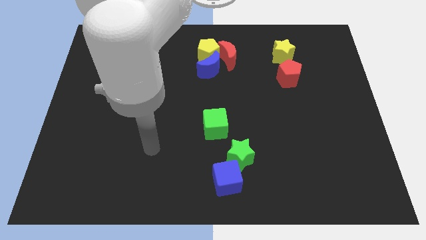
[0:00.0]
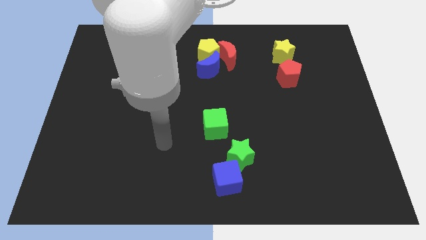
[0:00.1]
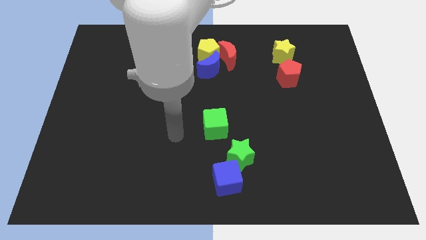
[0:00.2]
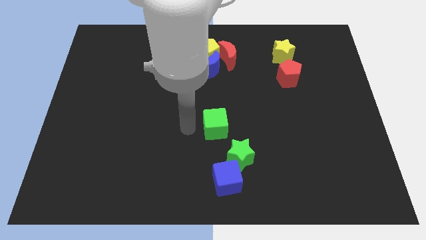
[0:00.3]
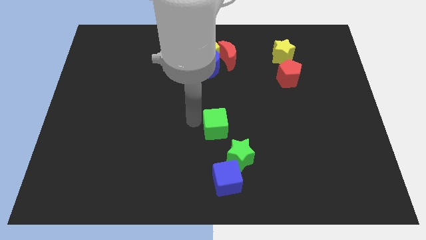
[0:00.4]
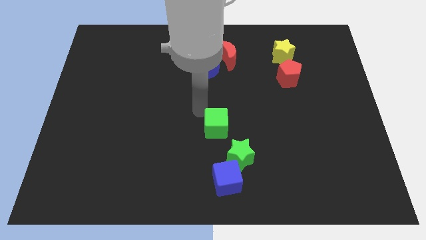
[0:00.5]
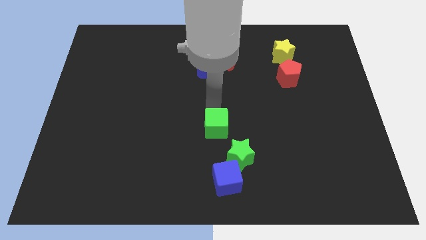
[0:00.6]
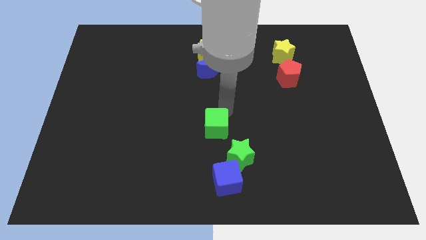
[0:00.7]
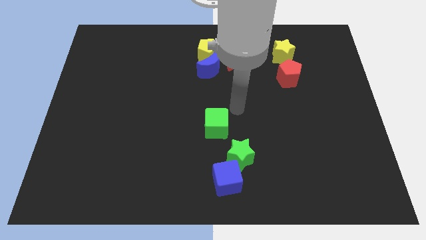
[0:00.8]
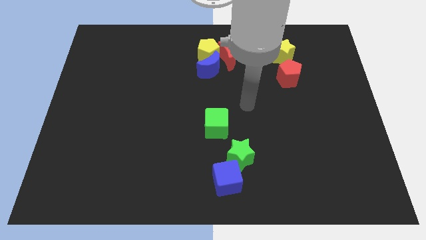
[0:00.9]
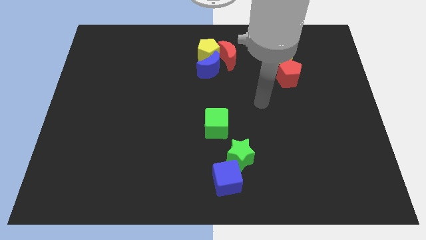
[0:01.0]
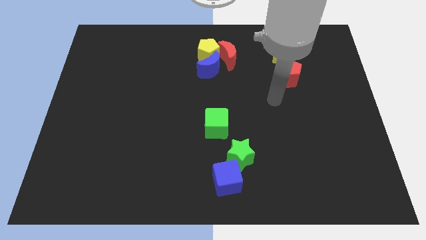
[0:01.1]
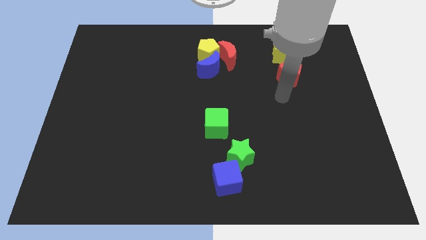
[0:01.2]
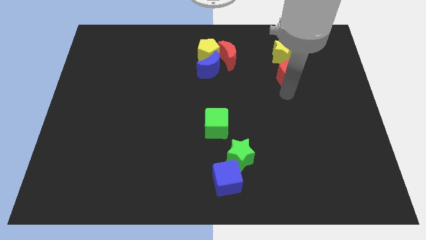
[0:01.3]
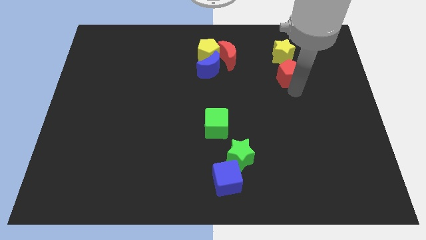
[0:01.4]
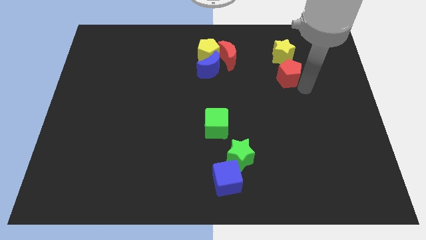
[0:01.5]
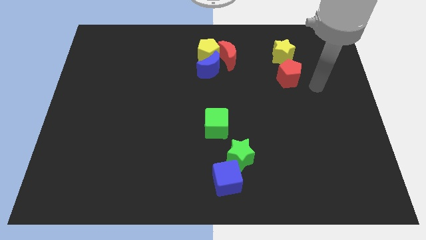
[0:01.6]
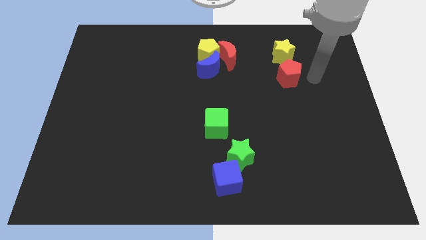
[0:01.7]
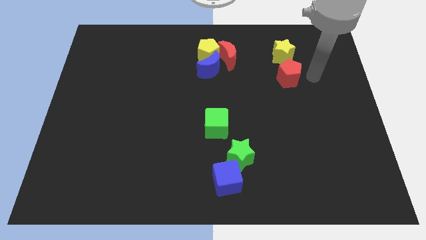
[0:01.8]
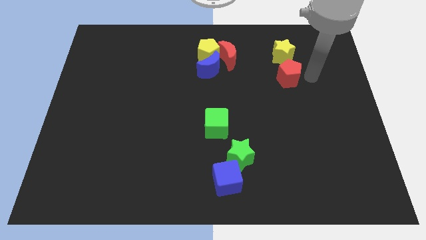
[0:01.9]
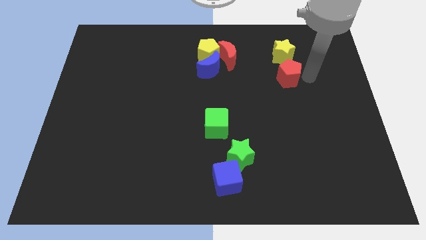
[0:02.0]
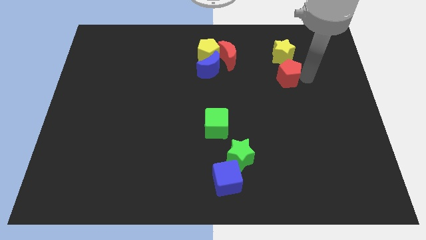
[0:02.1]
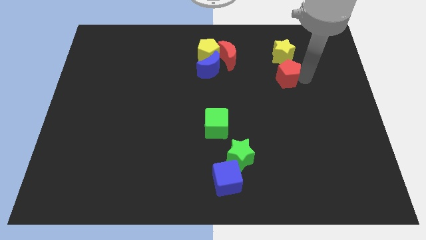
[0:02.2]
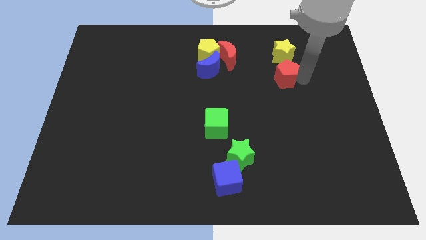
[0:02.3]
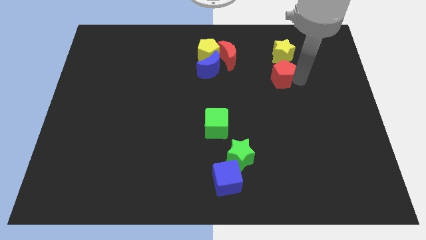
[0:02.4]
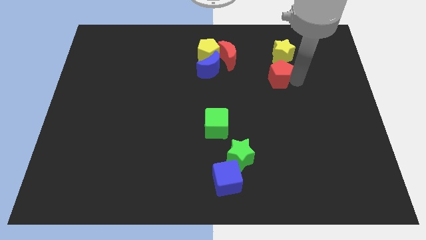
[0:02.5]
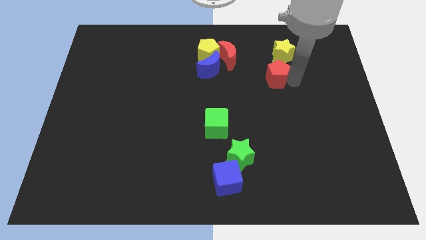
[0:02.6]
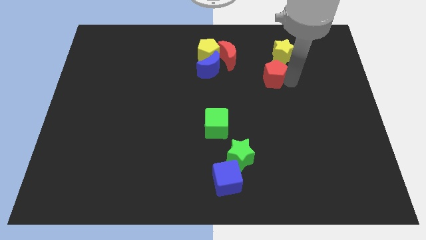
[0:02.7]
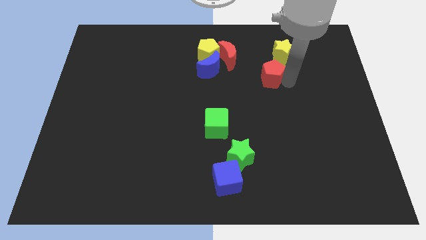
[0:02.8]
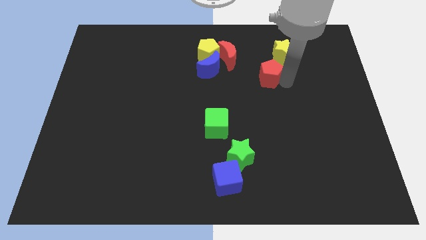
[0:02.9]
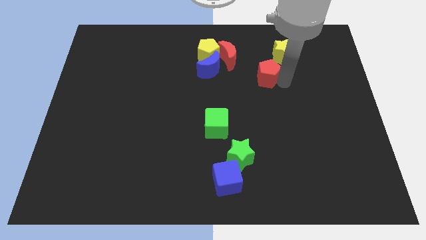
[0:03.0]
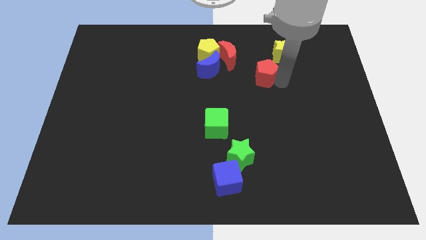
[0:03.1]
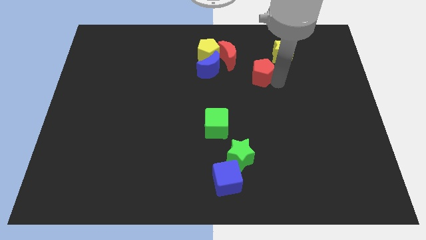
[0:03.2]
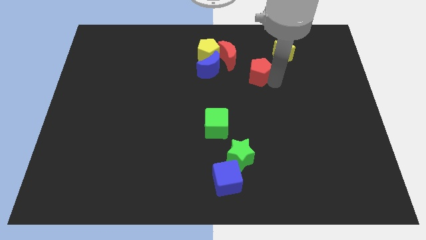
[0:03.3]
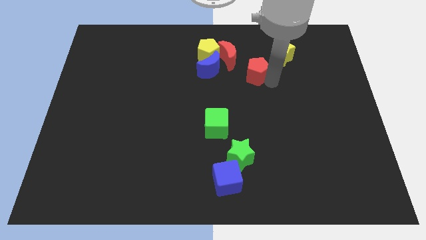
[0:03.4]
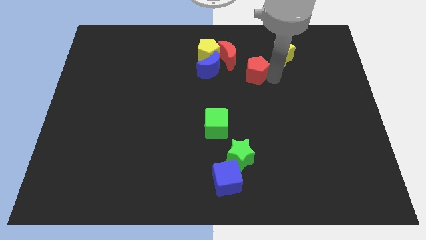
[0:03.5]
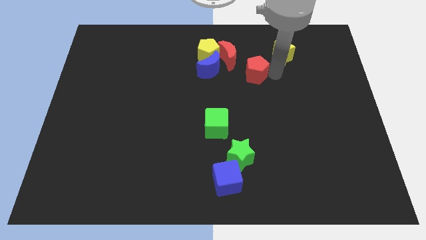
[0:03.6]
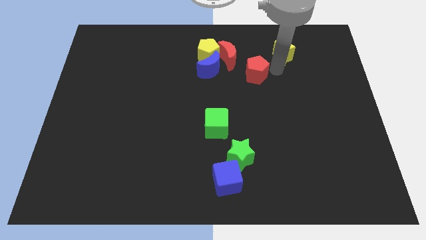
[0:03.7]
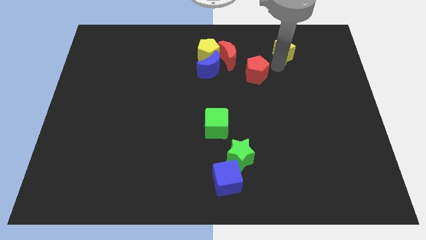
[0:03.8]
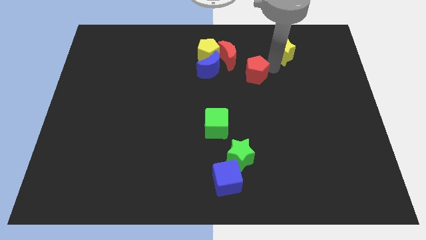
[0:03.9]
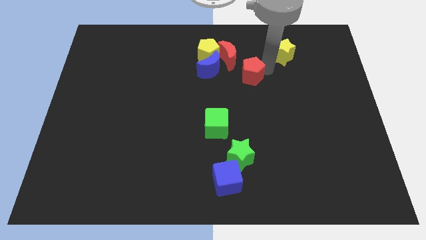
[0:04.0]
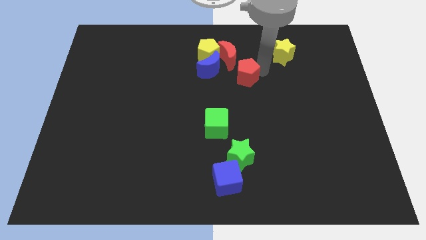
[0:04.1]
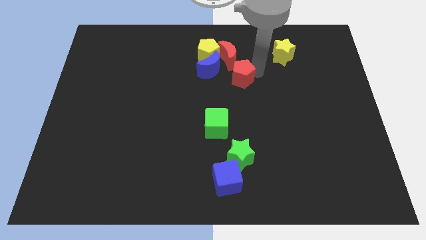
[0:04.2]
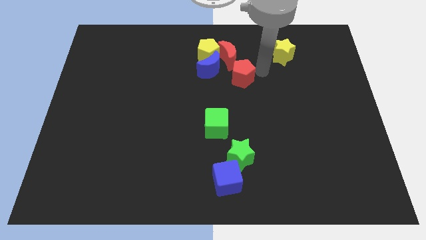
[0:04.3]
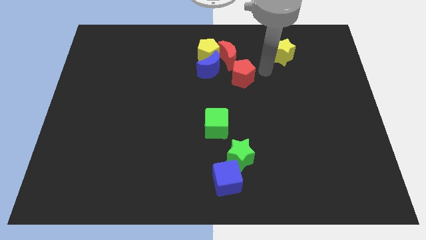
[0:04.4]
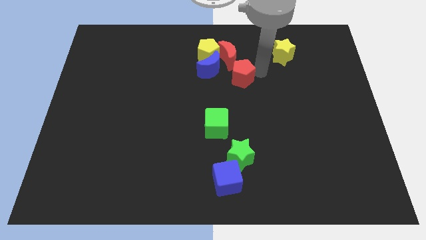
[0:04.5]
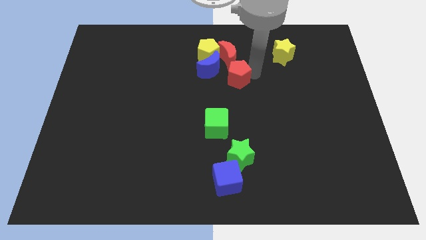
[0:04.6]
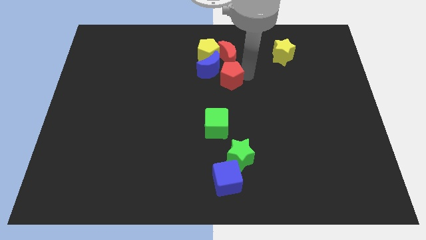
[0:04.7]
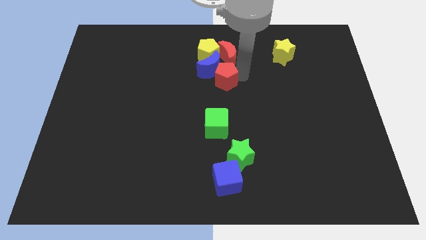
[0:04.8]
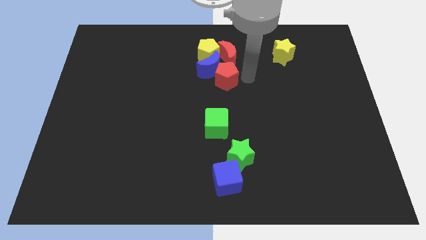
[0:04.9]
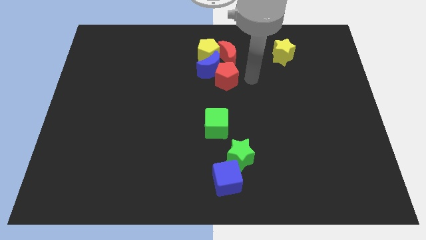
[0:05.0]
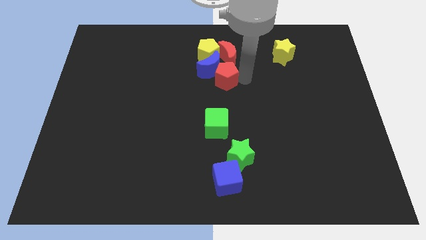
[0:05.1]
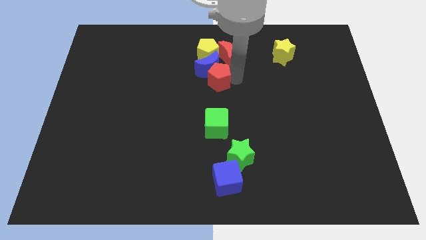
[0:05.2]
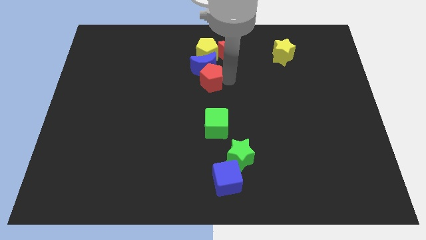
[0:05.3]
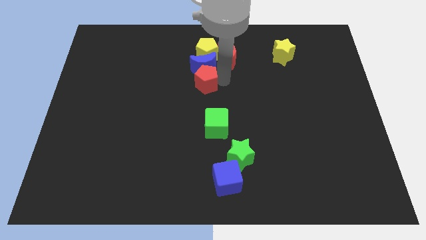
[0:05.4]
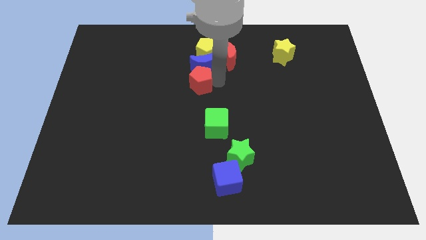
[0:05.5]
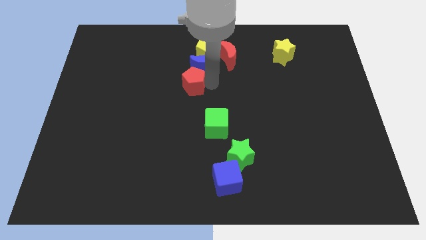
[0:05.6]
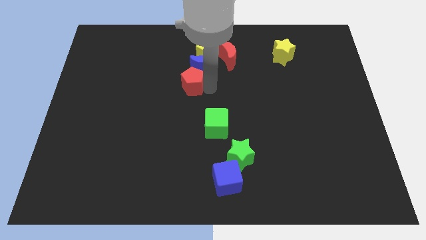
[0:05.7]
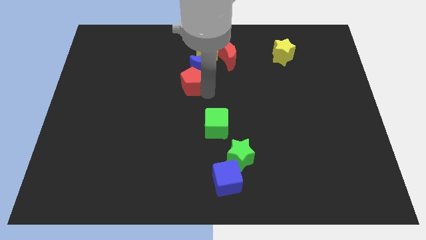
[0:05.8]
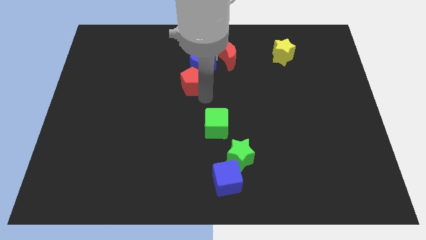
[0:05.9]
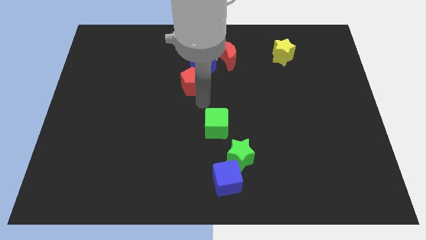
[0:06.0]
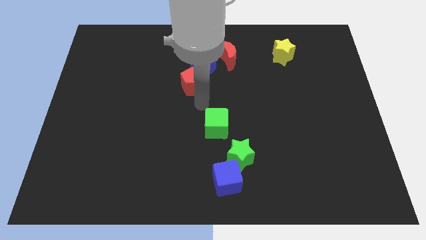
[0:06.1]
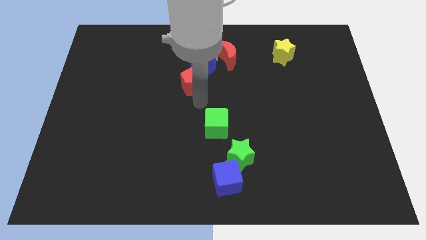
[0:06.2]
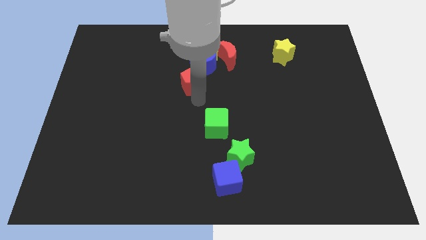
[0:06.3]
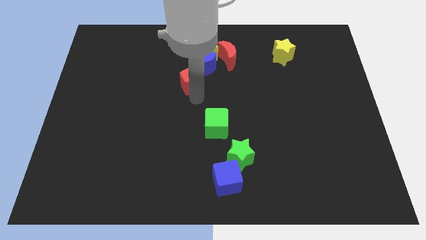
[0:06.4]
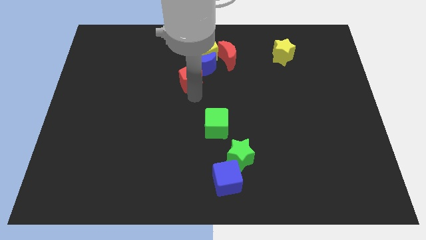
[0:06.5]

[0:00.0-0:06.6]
push the red pentagon to the bottom left side of the yellow pentagon

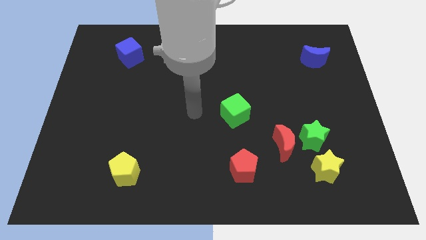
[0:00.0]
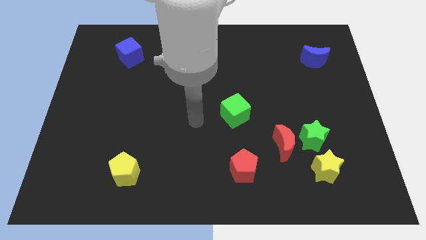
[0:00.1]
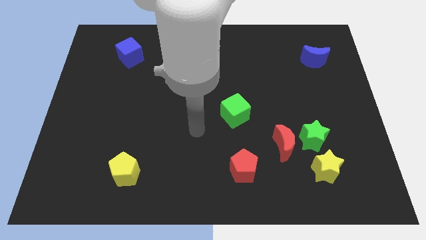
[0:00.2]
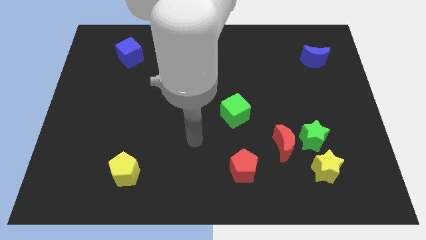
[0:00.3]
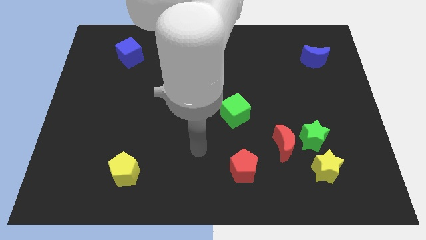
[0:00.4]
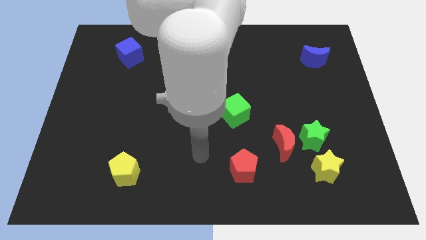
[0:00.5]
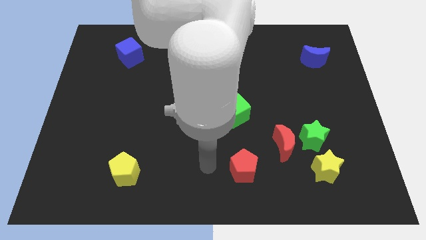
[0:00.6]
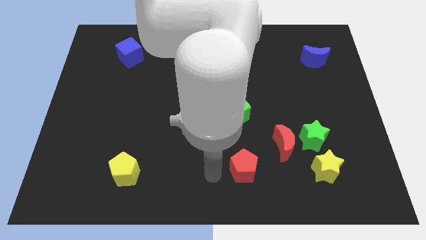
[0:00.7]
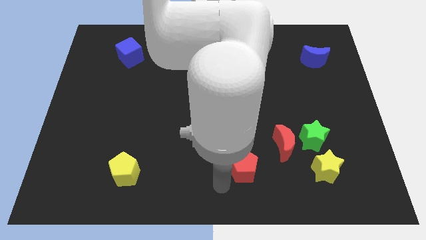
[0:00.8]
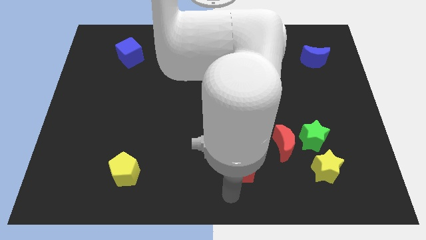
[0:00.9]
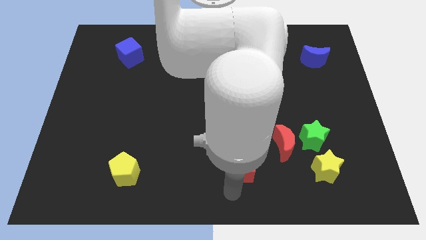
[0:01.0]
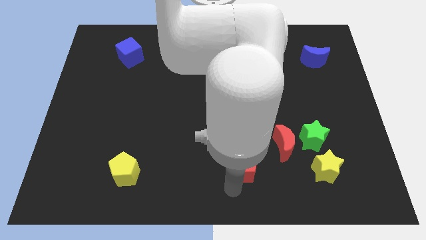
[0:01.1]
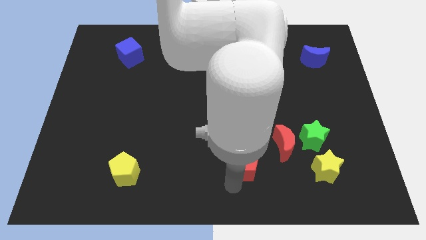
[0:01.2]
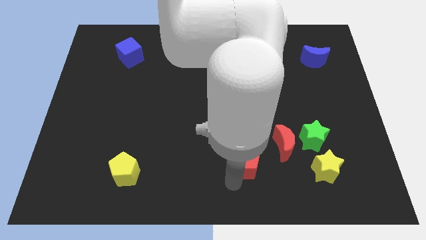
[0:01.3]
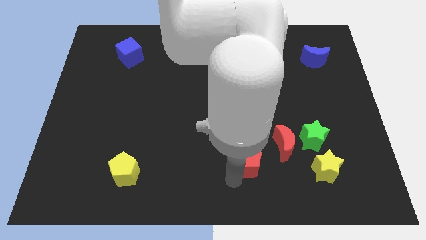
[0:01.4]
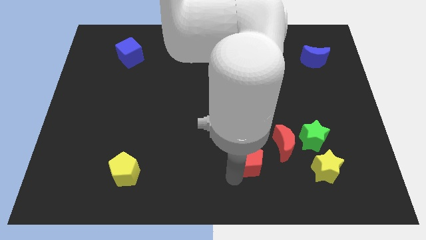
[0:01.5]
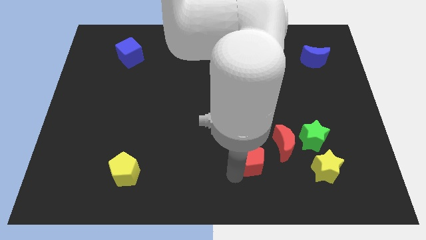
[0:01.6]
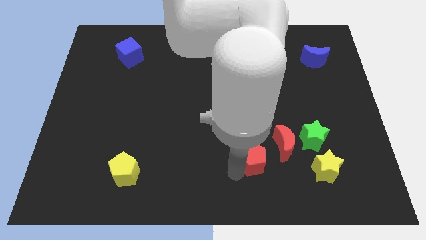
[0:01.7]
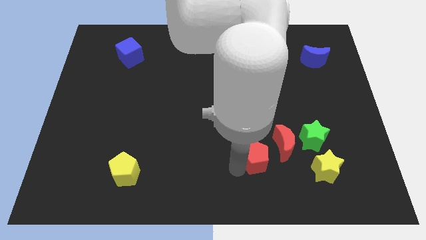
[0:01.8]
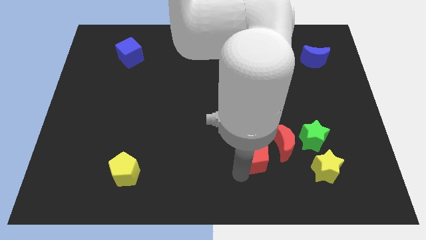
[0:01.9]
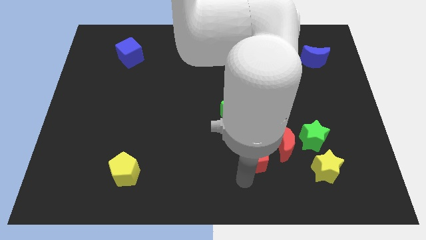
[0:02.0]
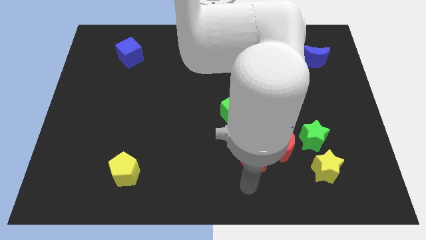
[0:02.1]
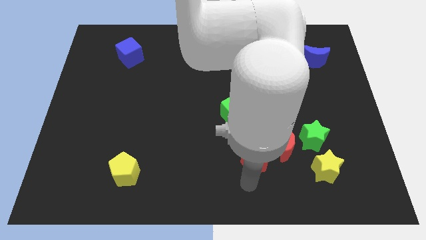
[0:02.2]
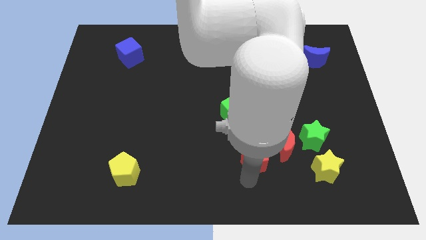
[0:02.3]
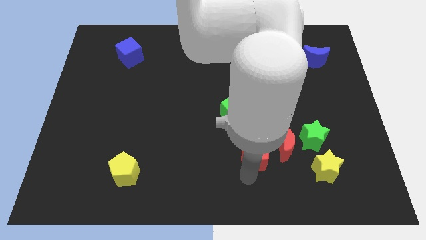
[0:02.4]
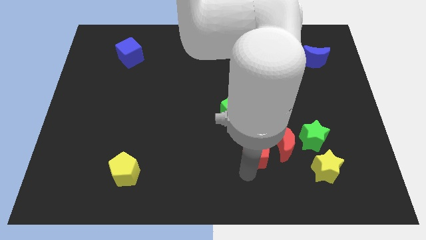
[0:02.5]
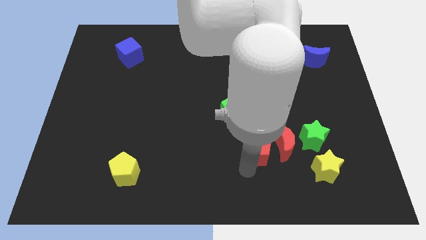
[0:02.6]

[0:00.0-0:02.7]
slide the red pentagon diagonally down and to the right of the green cube
